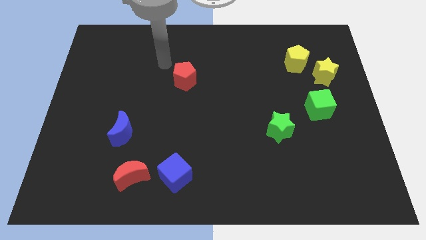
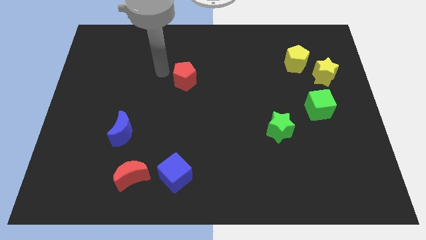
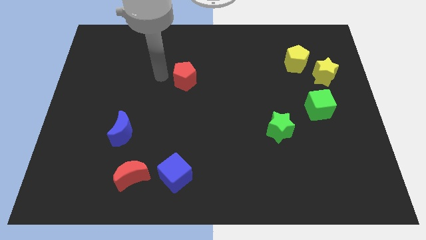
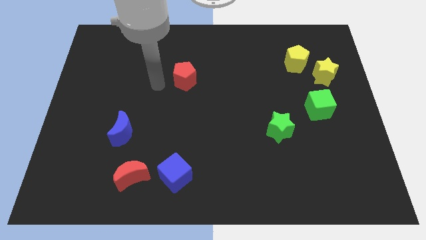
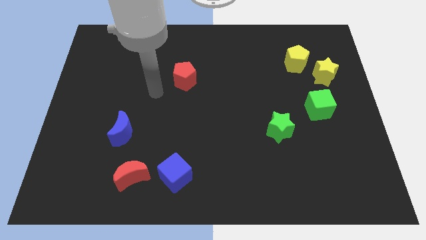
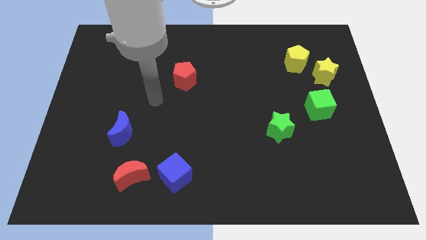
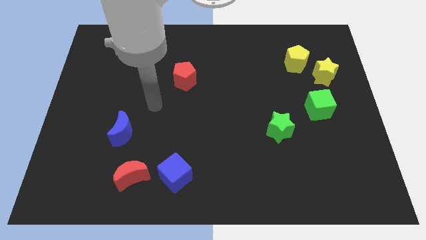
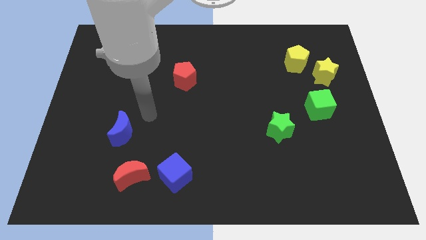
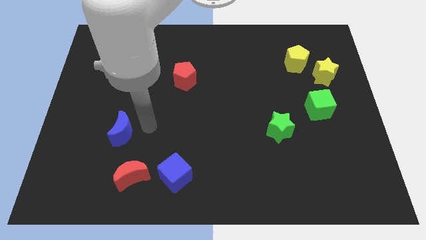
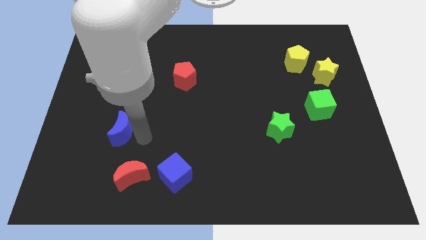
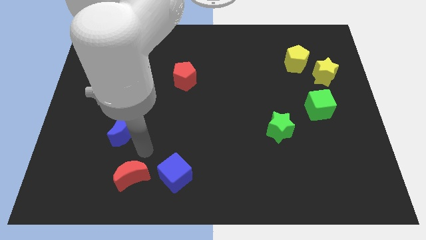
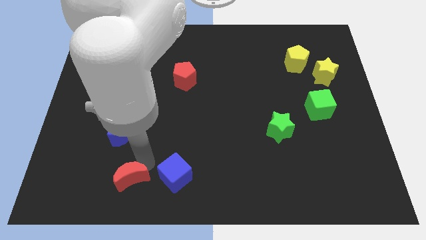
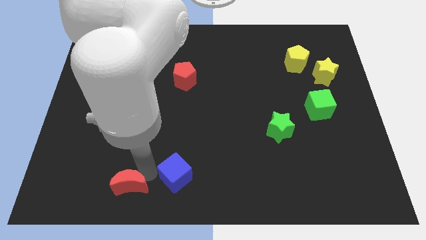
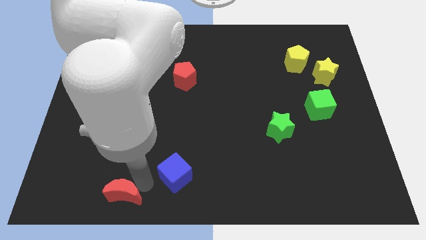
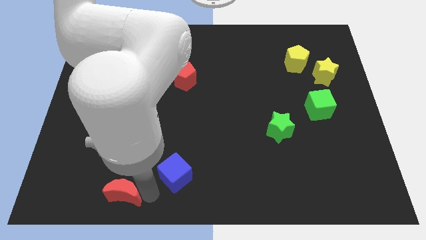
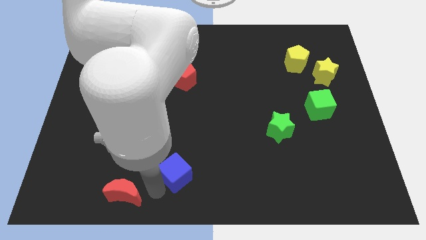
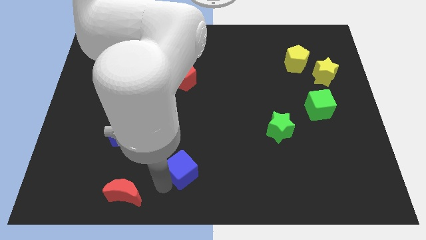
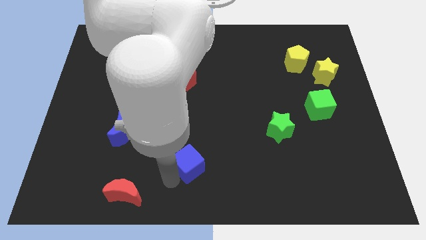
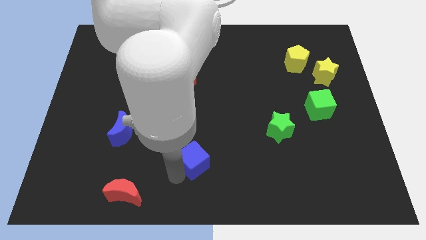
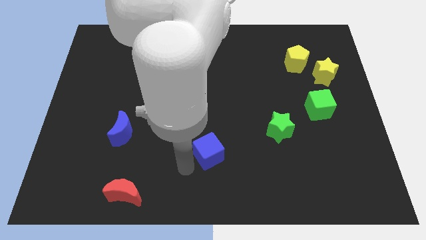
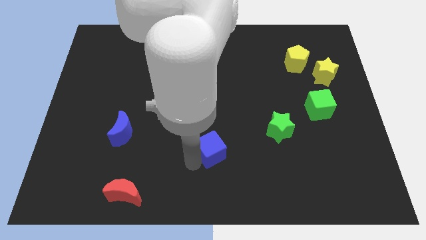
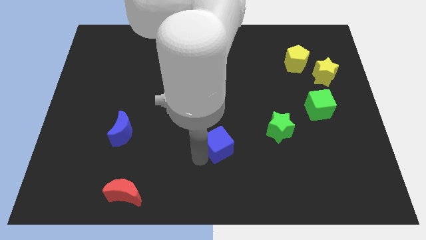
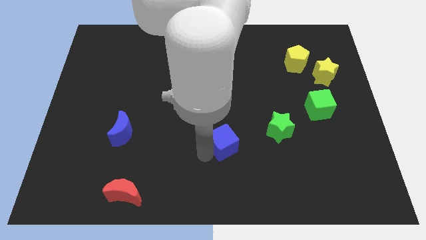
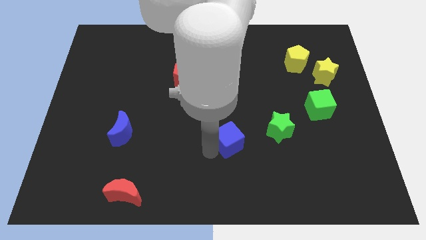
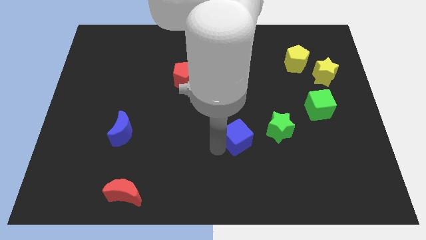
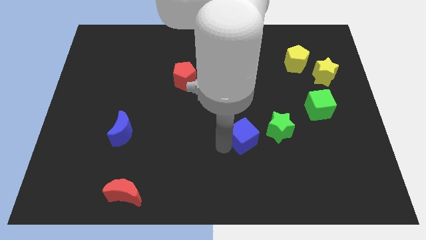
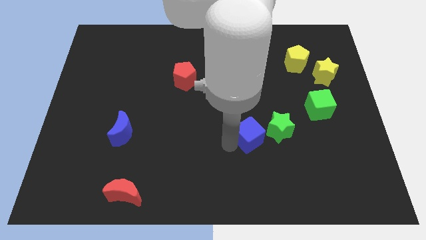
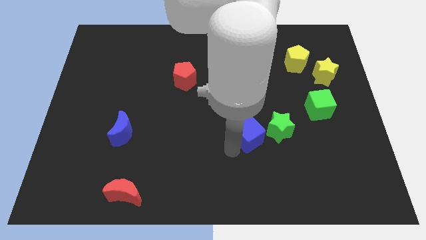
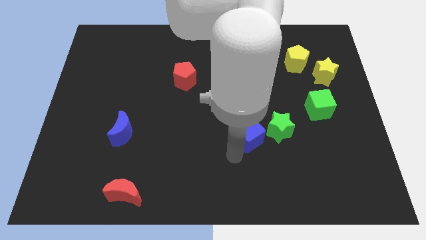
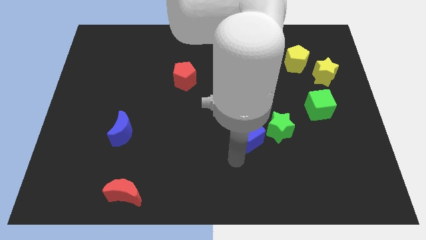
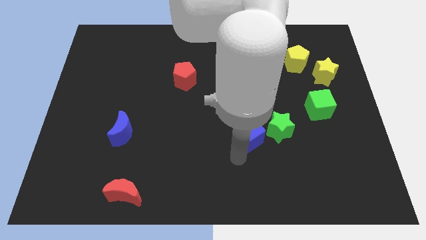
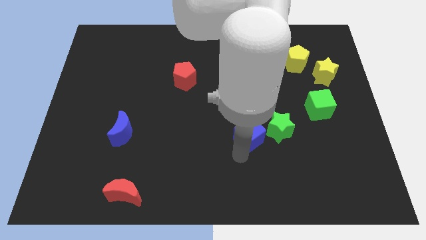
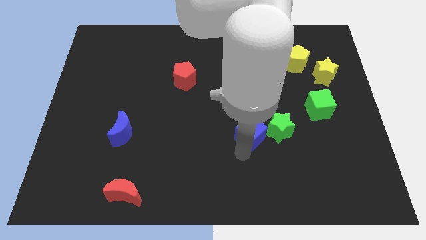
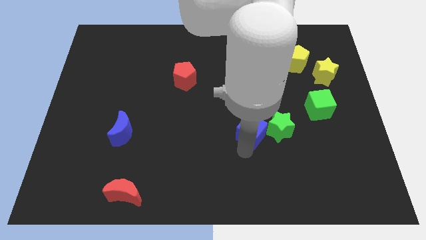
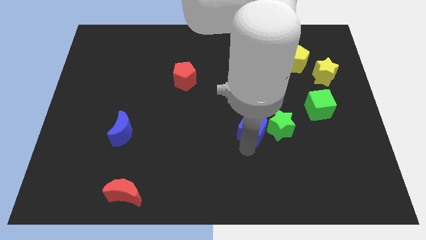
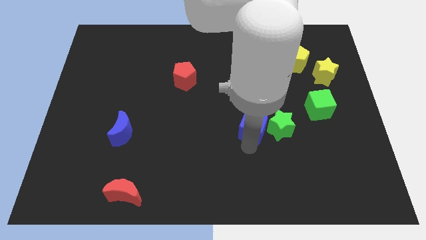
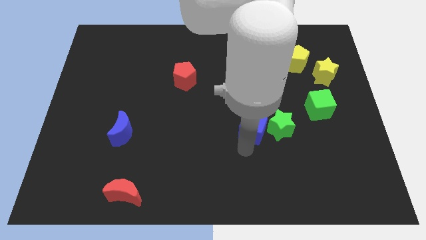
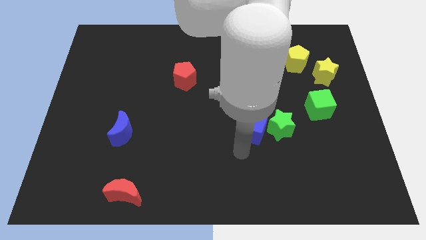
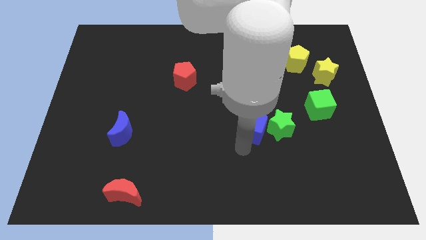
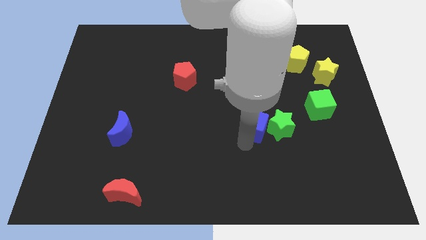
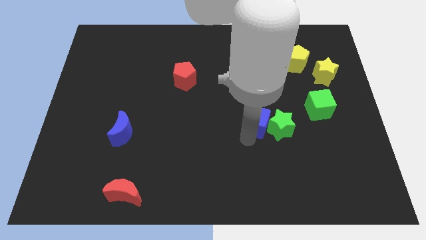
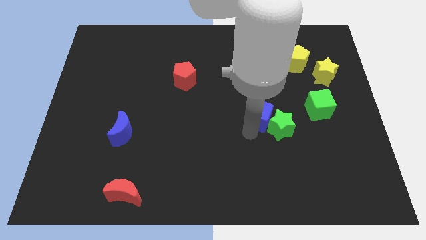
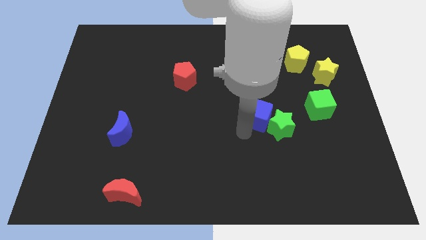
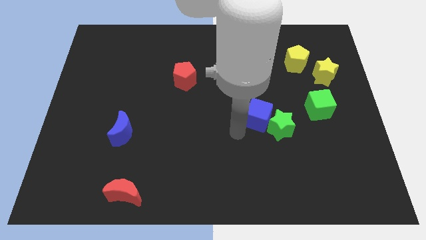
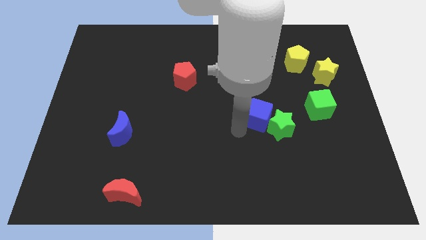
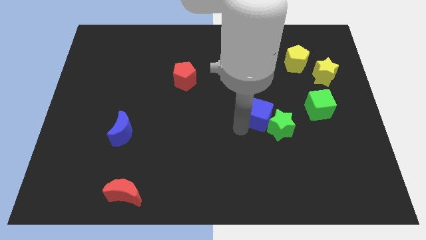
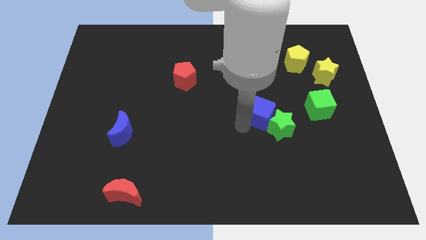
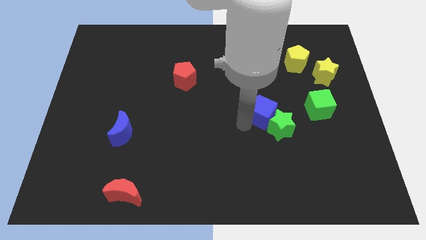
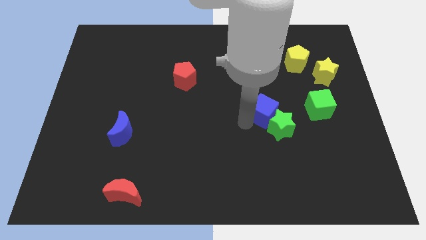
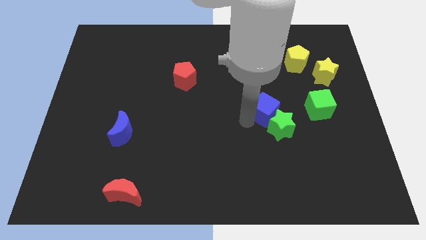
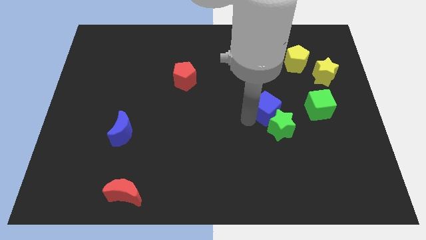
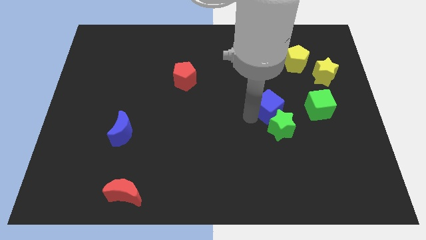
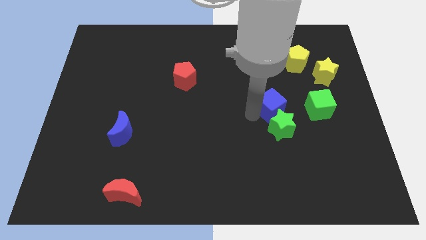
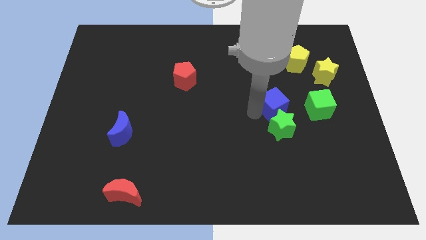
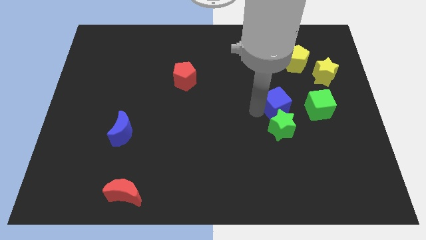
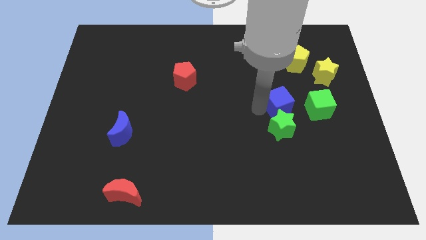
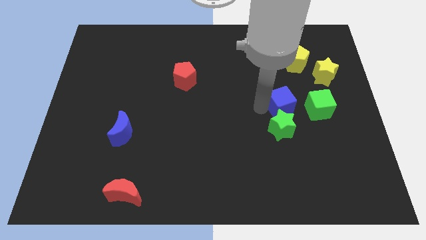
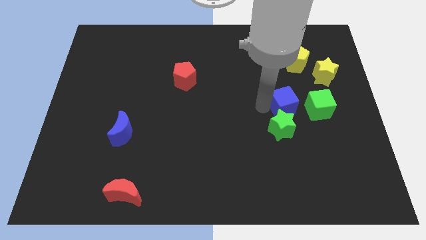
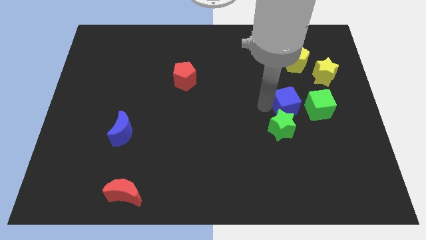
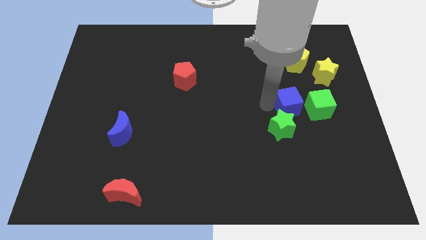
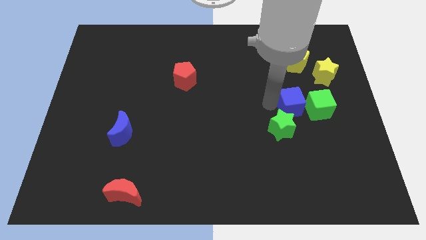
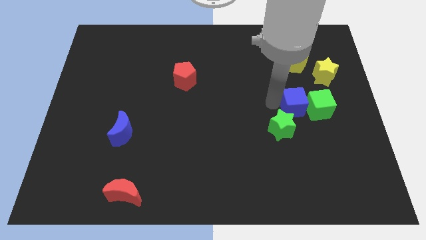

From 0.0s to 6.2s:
slide the blue cube close to the green cube
